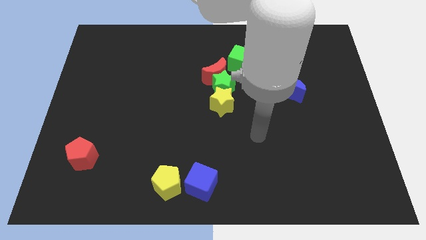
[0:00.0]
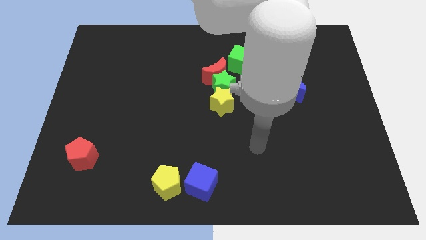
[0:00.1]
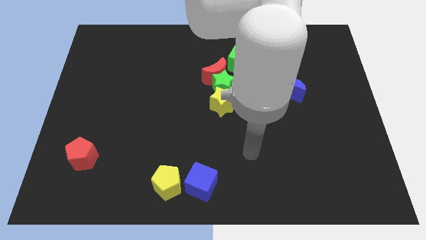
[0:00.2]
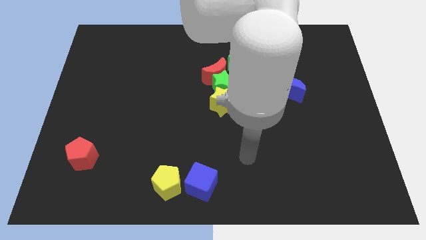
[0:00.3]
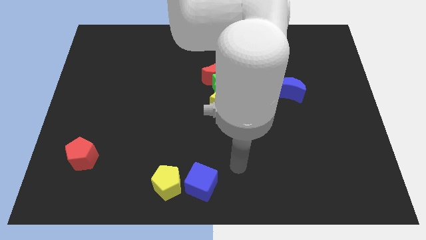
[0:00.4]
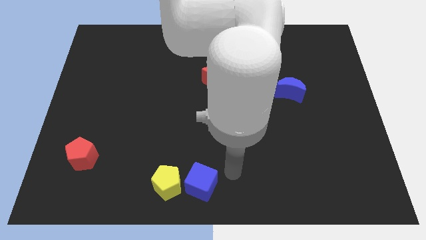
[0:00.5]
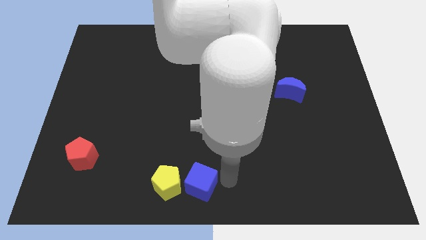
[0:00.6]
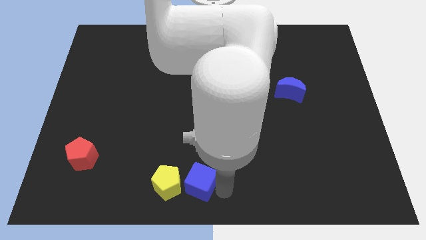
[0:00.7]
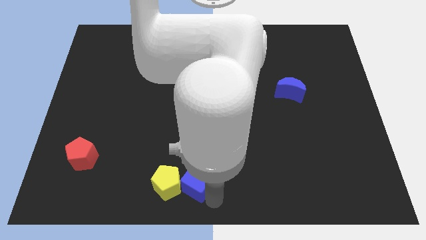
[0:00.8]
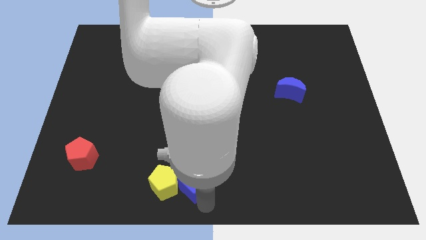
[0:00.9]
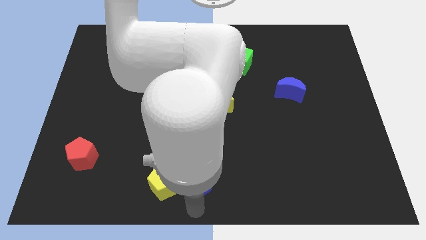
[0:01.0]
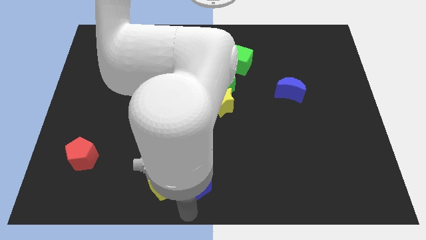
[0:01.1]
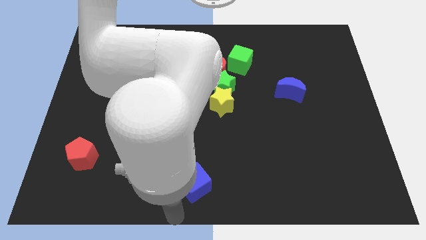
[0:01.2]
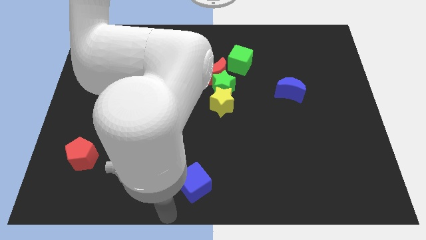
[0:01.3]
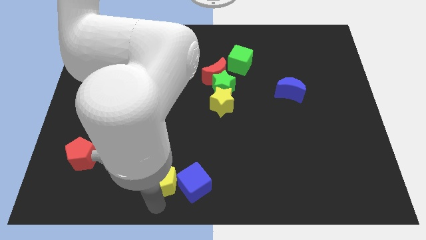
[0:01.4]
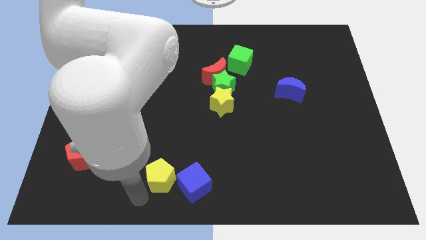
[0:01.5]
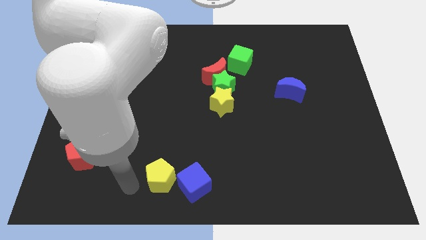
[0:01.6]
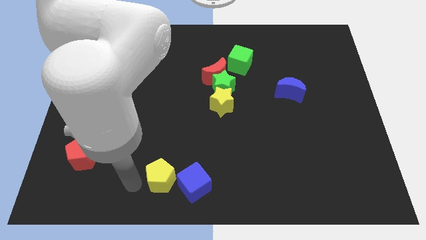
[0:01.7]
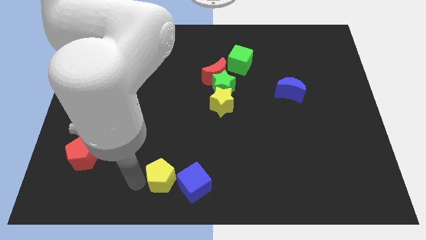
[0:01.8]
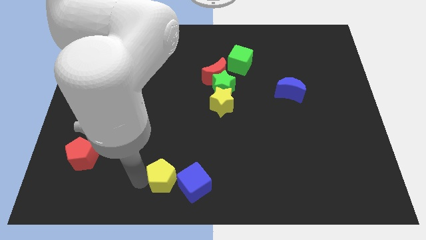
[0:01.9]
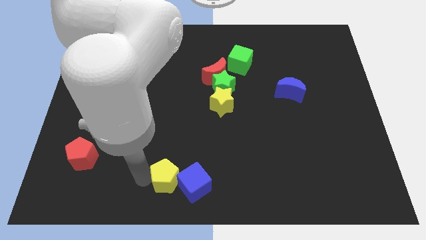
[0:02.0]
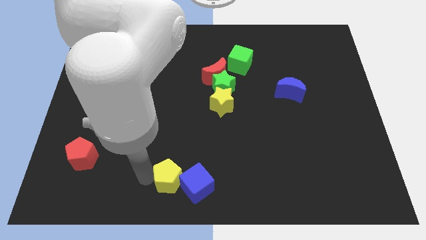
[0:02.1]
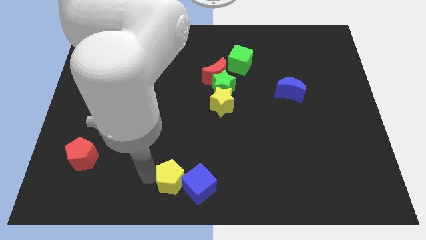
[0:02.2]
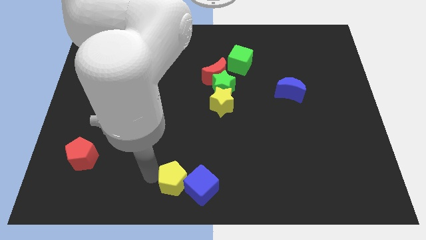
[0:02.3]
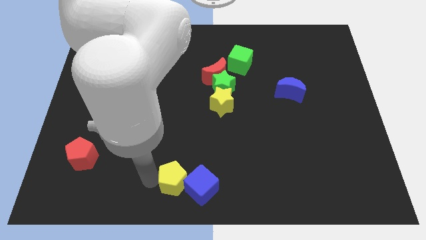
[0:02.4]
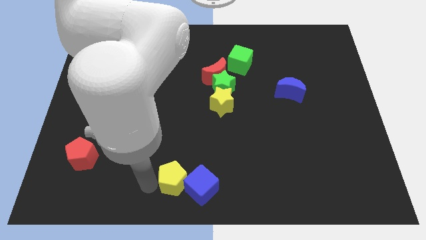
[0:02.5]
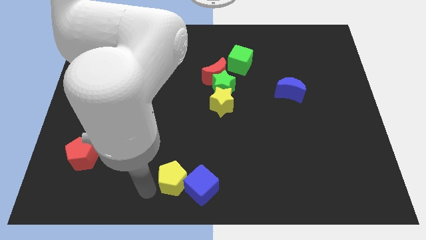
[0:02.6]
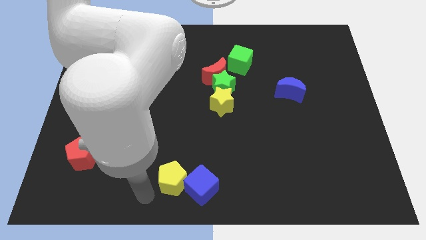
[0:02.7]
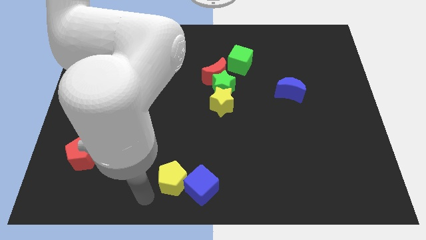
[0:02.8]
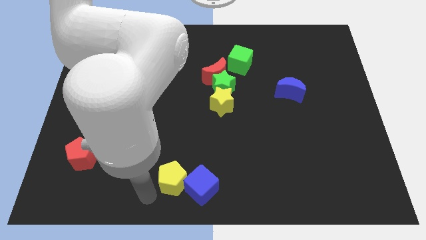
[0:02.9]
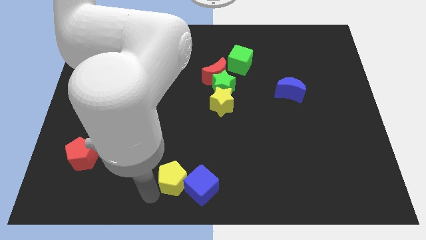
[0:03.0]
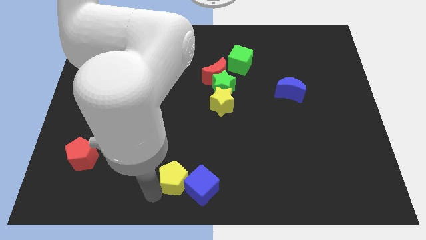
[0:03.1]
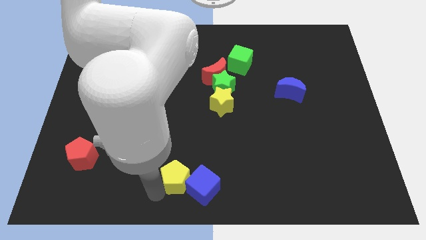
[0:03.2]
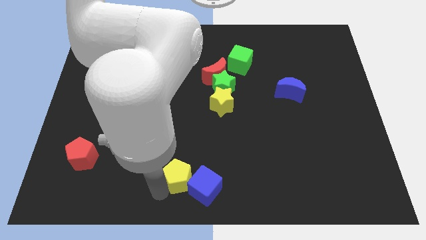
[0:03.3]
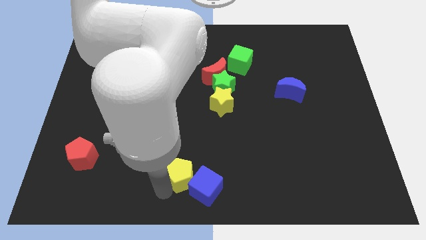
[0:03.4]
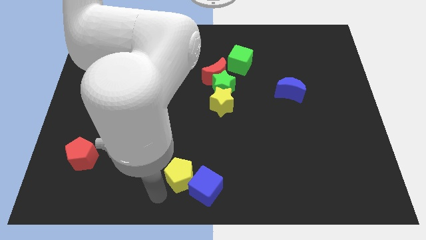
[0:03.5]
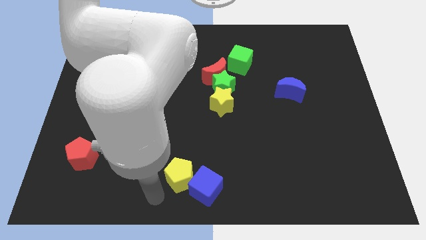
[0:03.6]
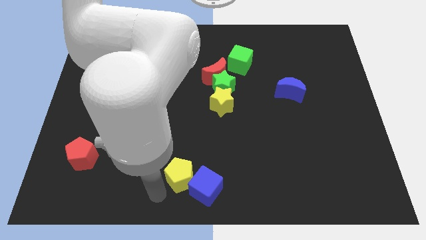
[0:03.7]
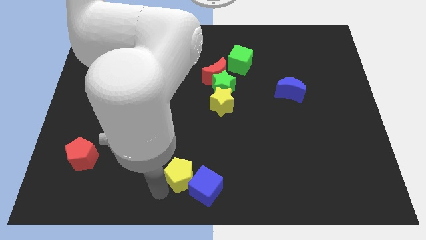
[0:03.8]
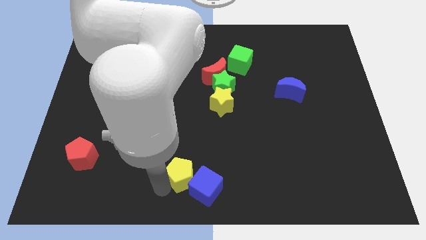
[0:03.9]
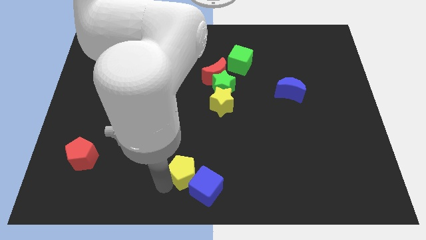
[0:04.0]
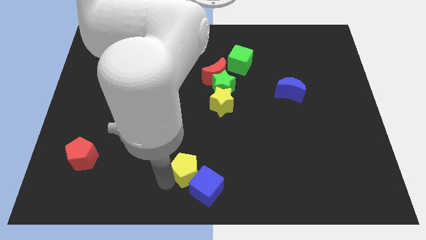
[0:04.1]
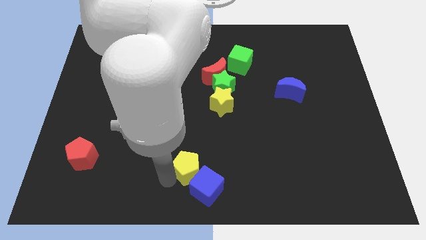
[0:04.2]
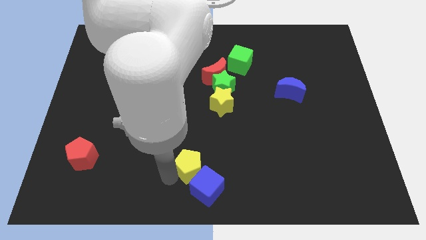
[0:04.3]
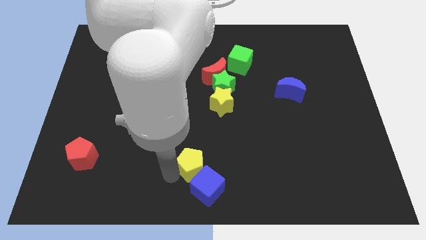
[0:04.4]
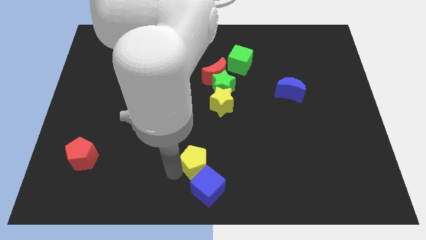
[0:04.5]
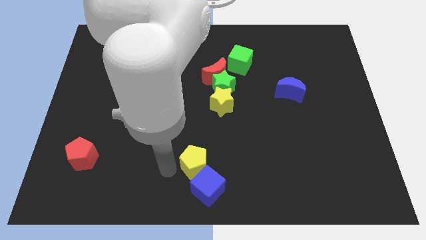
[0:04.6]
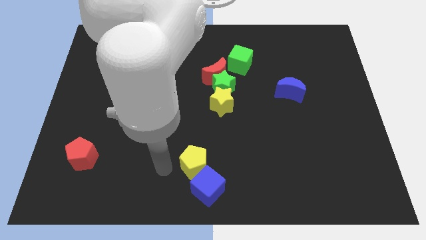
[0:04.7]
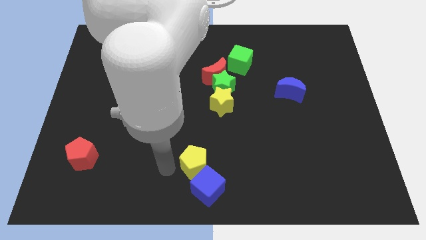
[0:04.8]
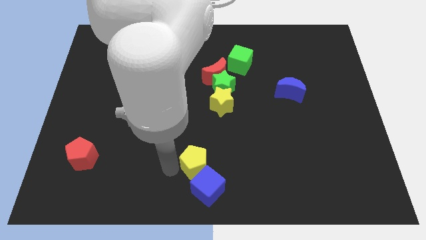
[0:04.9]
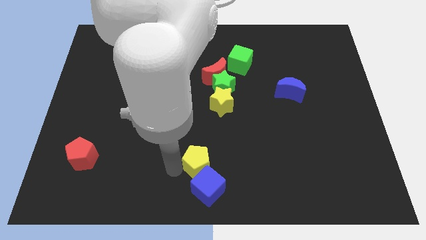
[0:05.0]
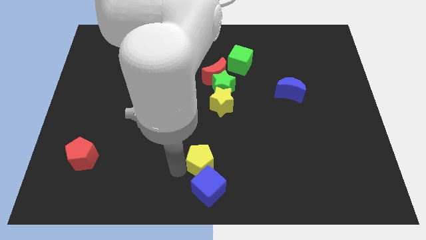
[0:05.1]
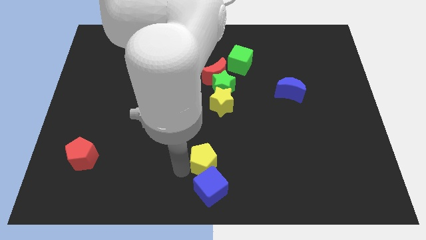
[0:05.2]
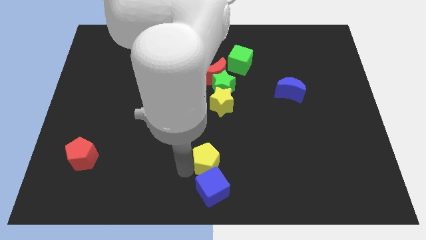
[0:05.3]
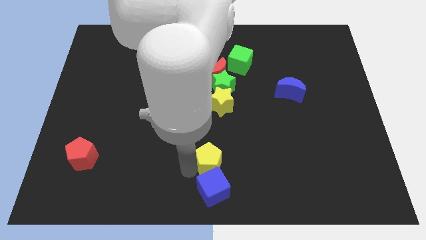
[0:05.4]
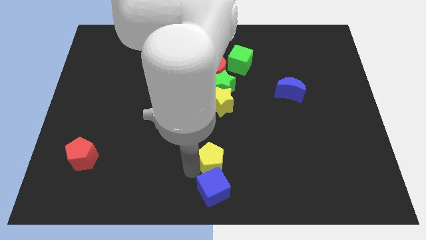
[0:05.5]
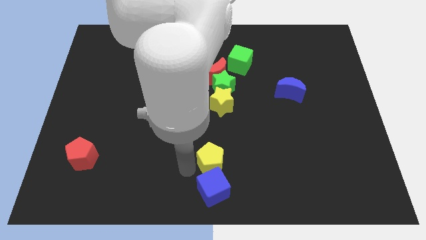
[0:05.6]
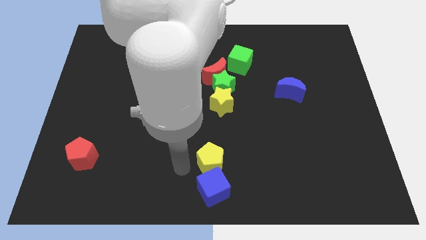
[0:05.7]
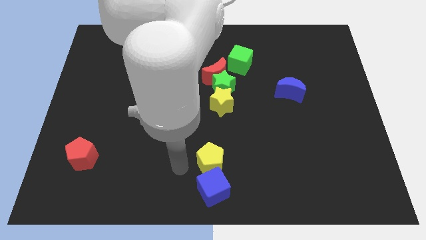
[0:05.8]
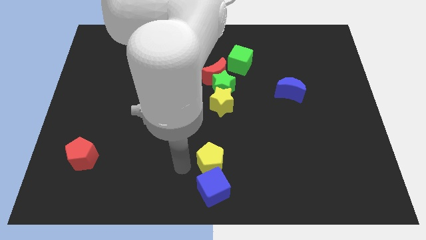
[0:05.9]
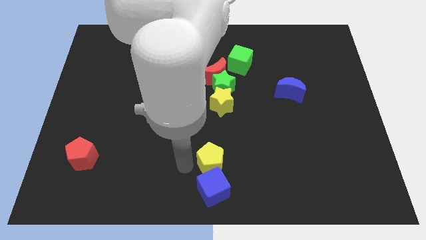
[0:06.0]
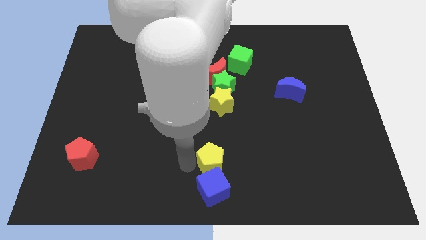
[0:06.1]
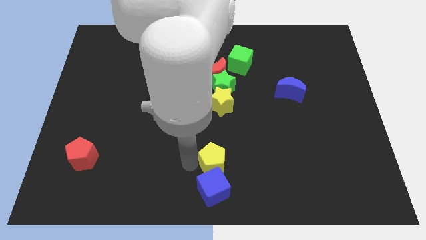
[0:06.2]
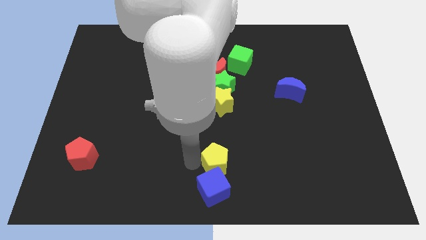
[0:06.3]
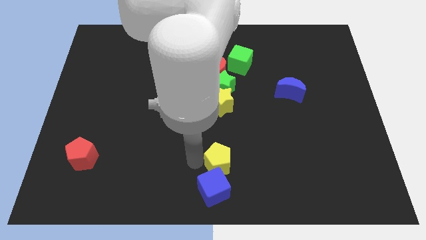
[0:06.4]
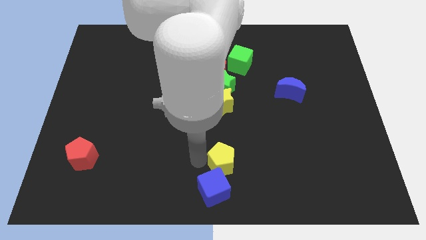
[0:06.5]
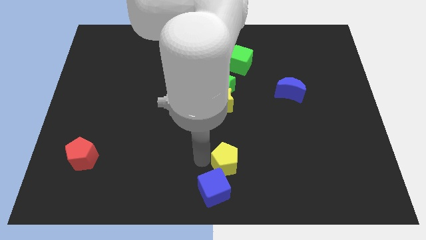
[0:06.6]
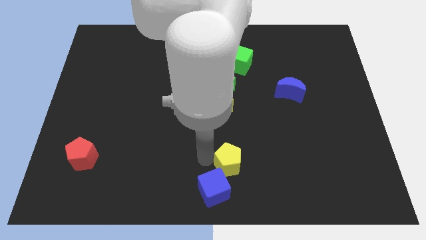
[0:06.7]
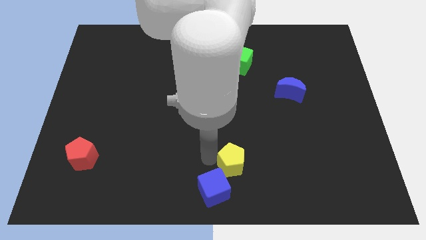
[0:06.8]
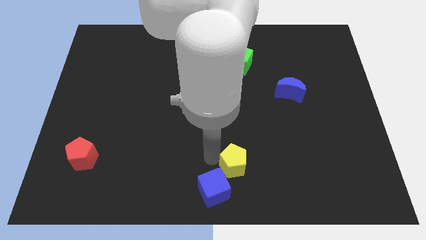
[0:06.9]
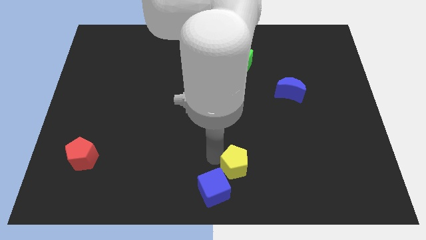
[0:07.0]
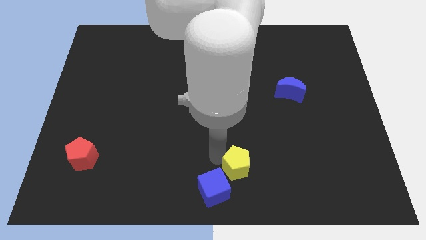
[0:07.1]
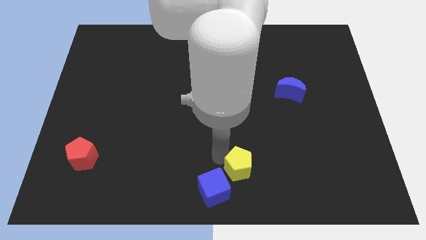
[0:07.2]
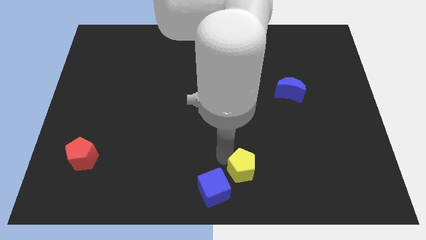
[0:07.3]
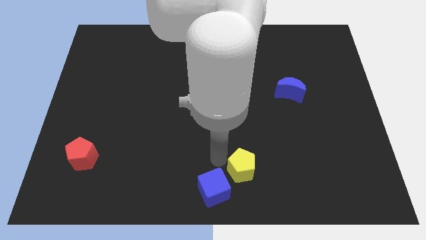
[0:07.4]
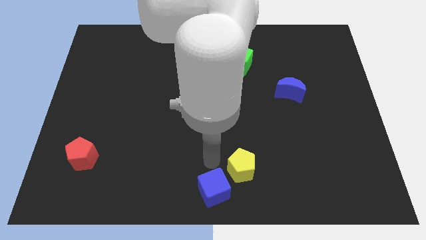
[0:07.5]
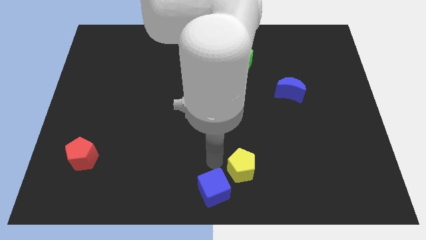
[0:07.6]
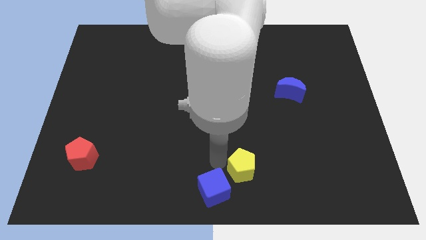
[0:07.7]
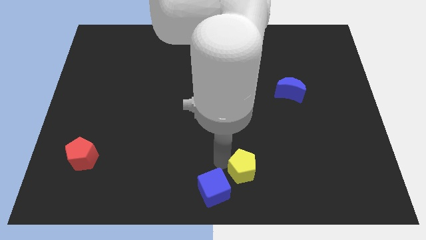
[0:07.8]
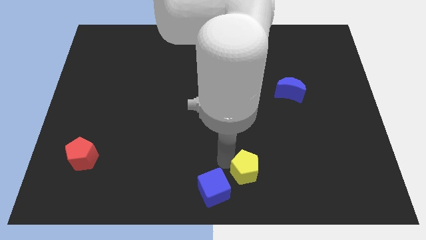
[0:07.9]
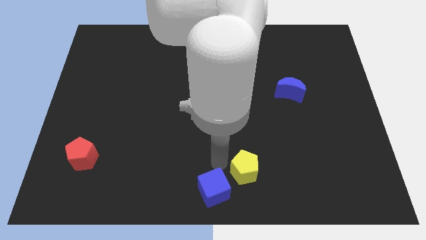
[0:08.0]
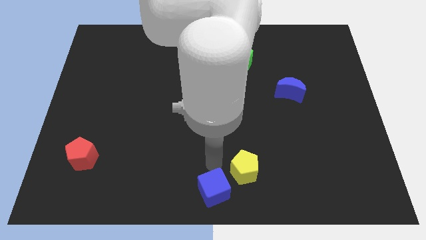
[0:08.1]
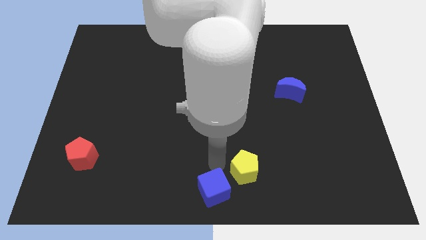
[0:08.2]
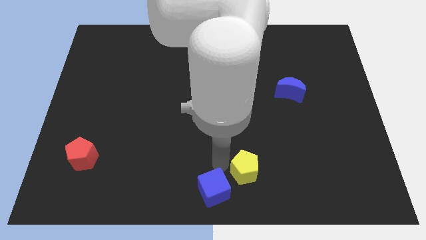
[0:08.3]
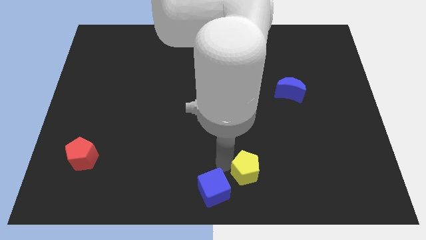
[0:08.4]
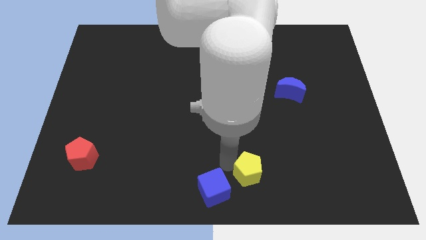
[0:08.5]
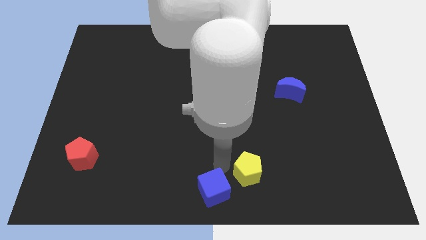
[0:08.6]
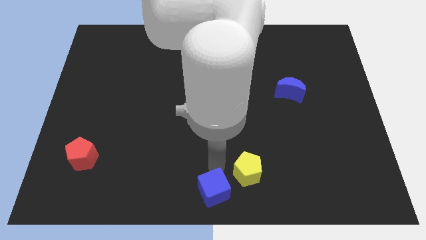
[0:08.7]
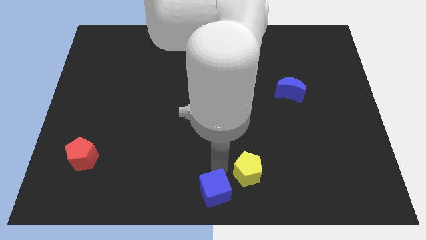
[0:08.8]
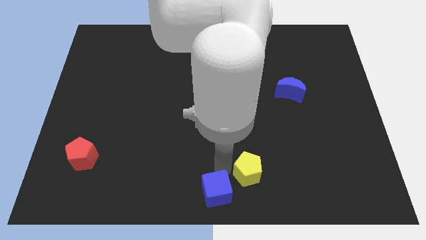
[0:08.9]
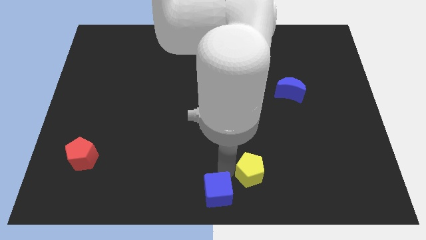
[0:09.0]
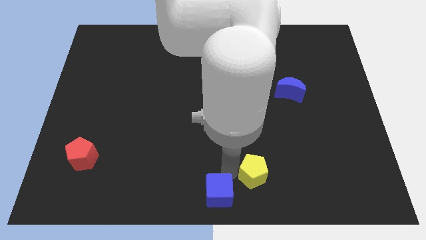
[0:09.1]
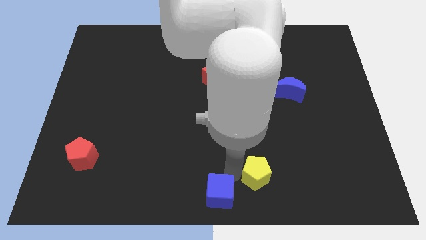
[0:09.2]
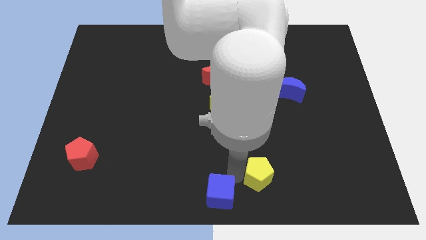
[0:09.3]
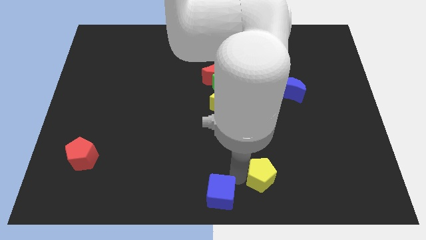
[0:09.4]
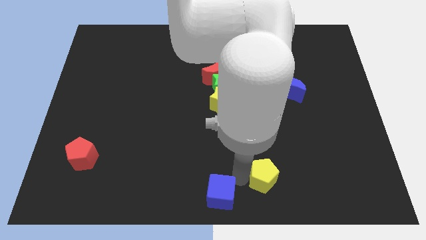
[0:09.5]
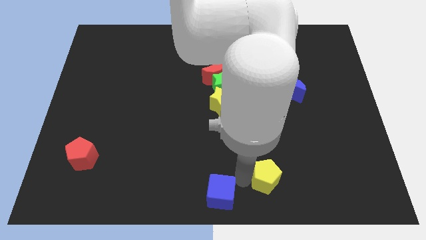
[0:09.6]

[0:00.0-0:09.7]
move the yellow pentagon right
